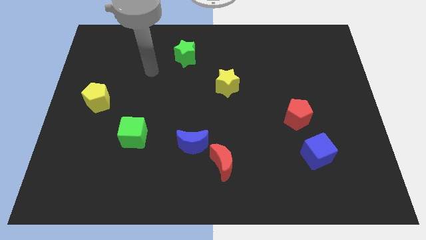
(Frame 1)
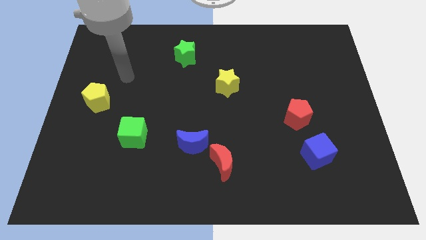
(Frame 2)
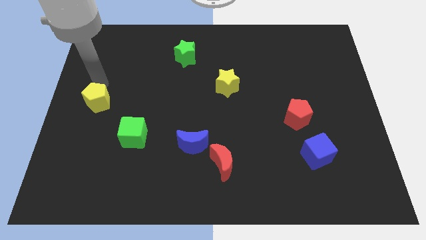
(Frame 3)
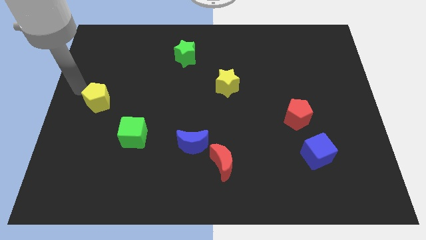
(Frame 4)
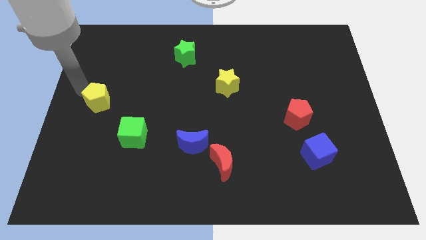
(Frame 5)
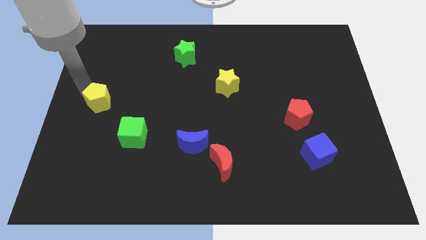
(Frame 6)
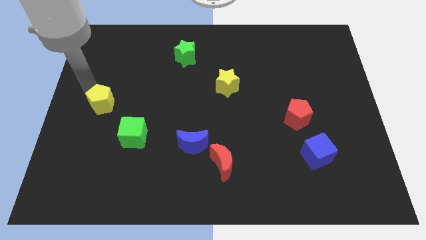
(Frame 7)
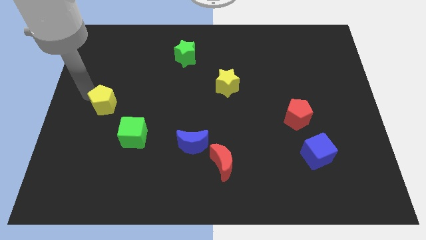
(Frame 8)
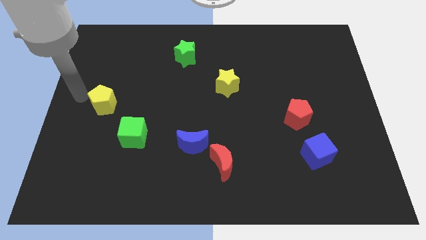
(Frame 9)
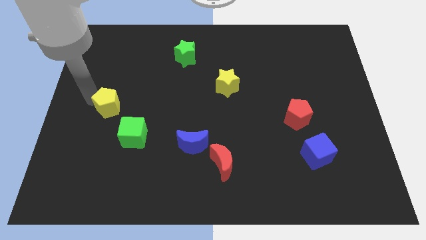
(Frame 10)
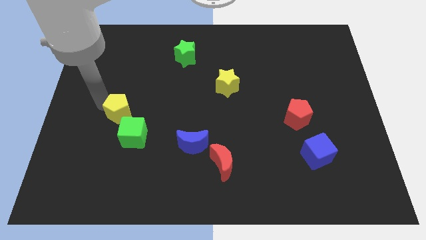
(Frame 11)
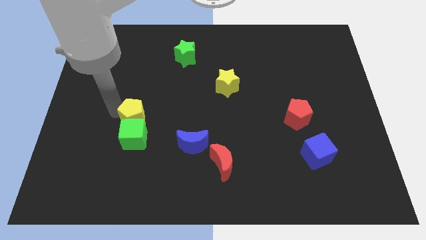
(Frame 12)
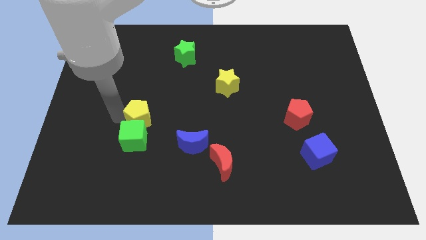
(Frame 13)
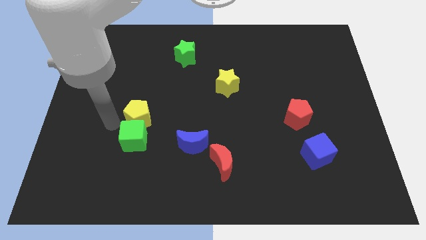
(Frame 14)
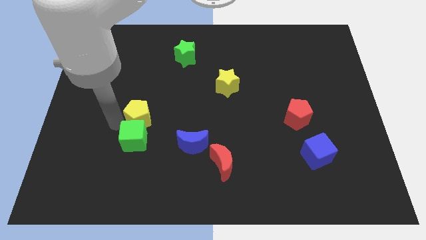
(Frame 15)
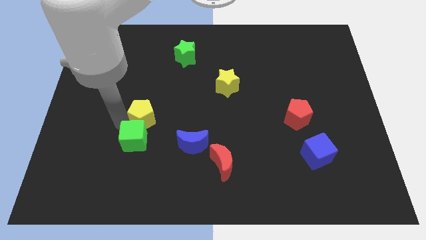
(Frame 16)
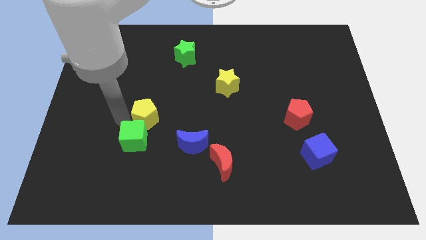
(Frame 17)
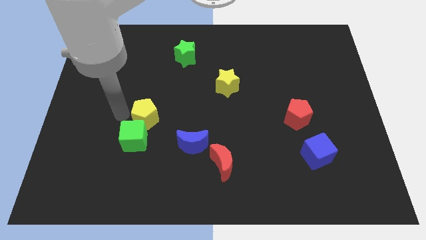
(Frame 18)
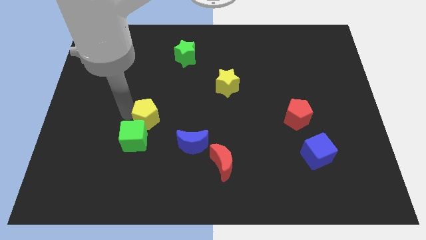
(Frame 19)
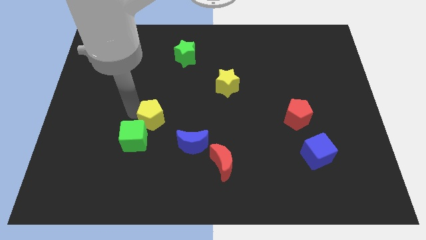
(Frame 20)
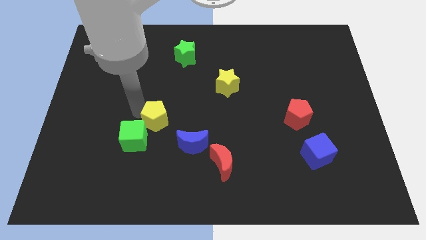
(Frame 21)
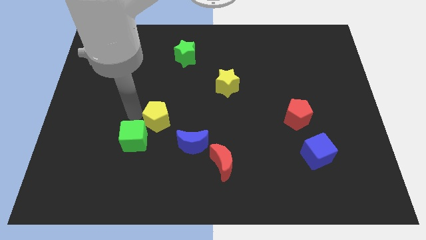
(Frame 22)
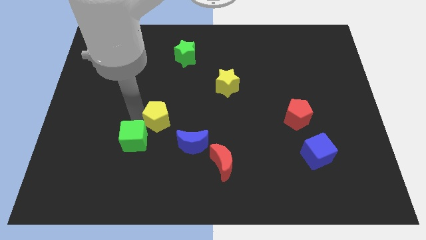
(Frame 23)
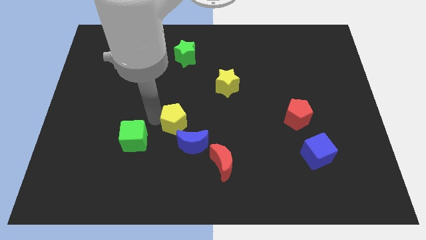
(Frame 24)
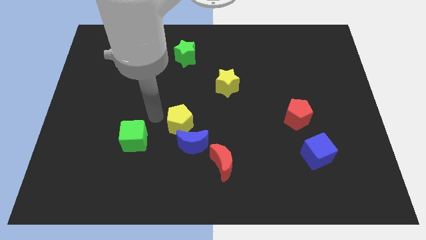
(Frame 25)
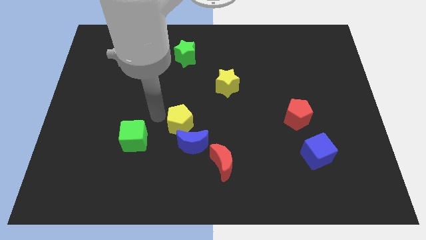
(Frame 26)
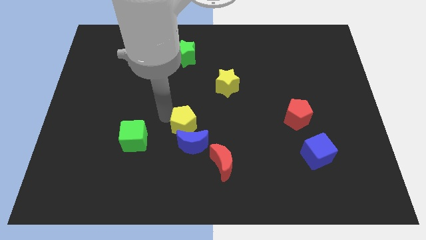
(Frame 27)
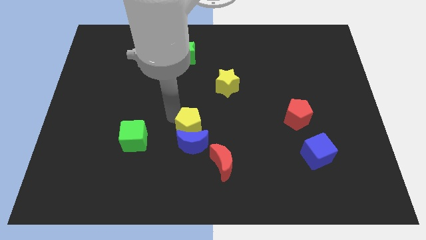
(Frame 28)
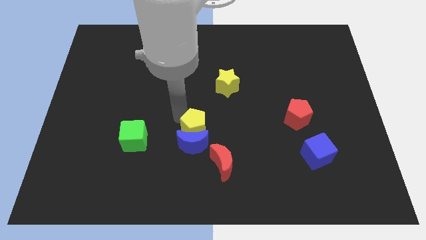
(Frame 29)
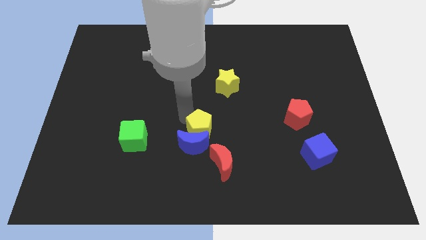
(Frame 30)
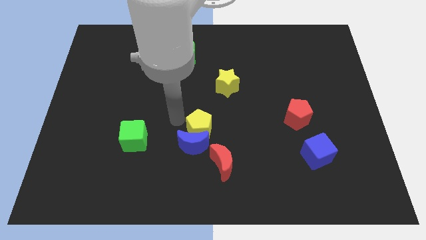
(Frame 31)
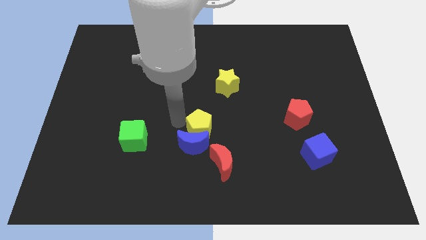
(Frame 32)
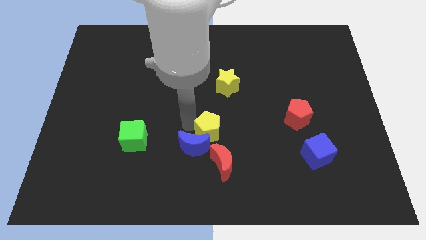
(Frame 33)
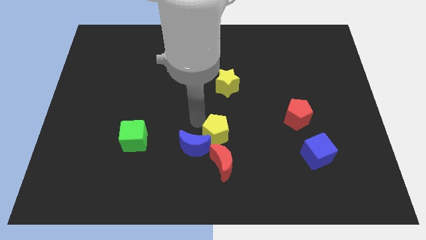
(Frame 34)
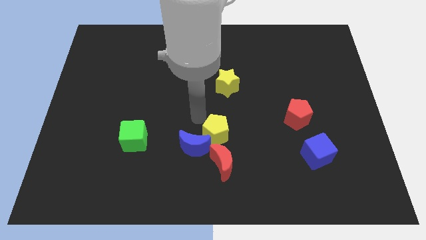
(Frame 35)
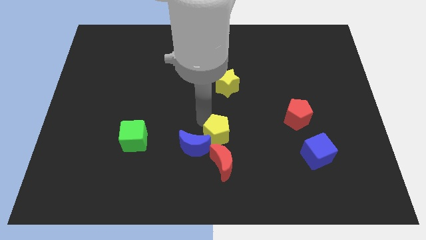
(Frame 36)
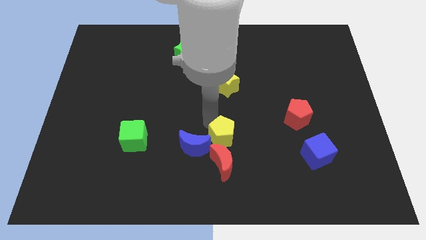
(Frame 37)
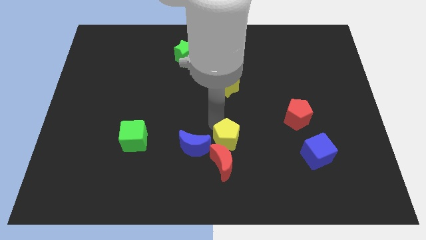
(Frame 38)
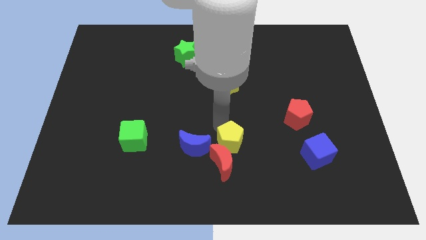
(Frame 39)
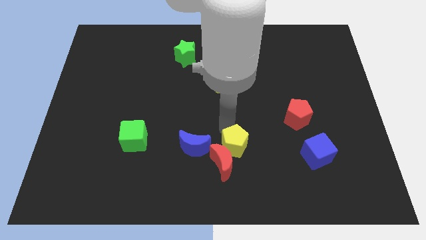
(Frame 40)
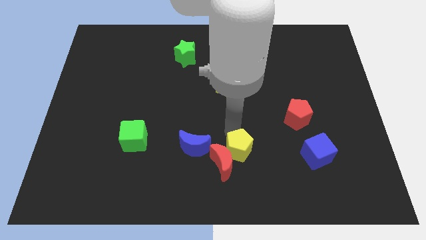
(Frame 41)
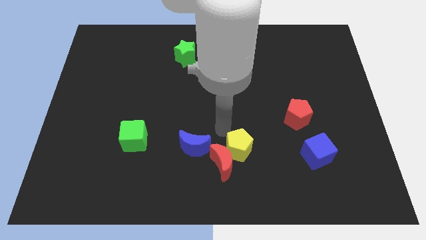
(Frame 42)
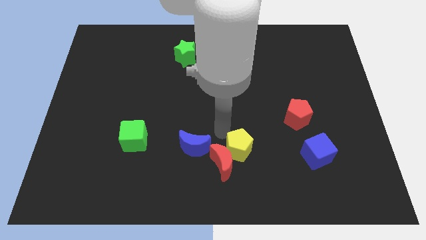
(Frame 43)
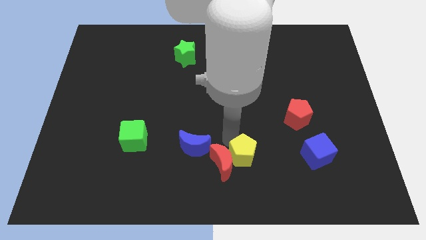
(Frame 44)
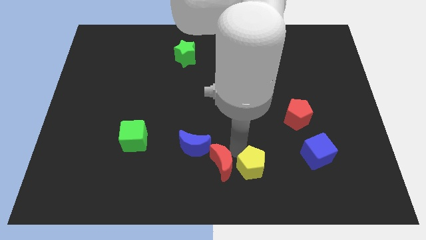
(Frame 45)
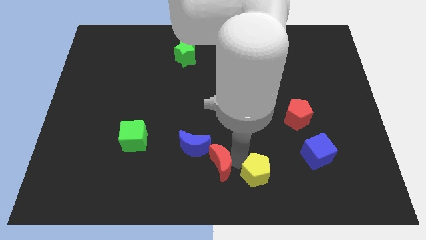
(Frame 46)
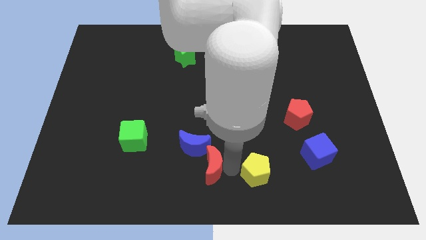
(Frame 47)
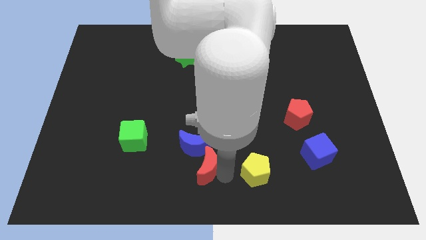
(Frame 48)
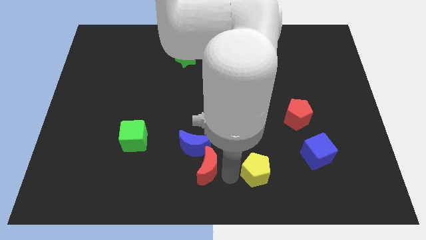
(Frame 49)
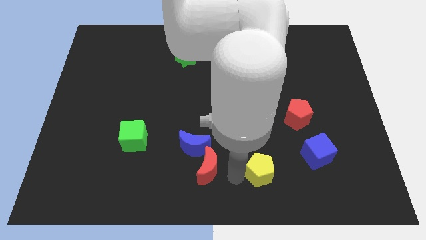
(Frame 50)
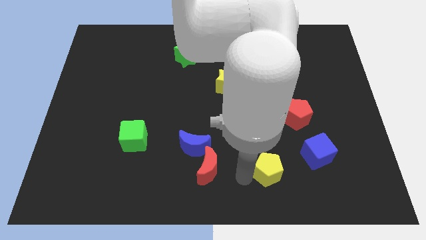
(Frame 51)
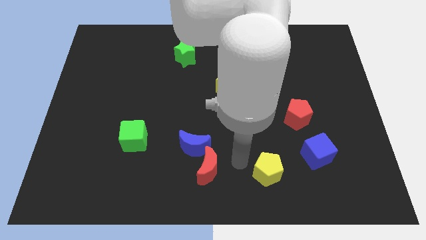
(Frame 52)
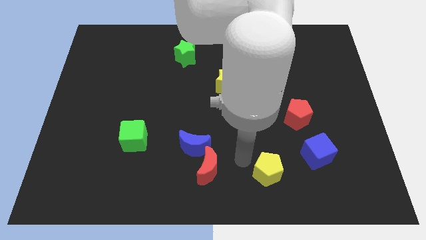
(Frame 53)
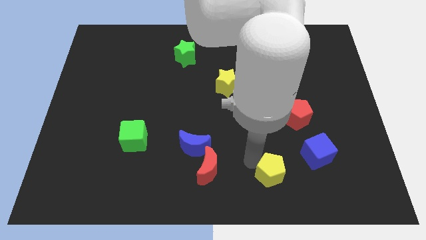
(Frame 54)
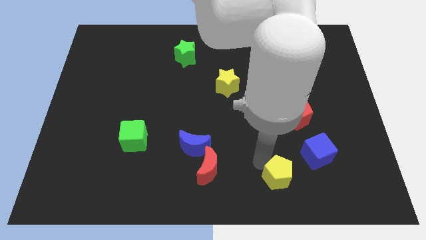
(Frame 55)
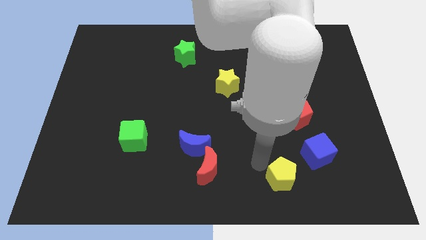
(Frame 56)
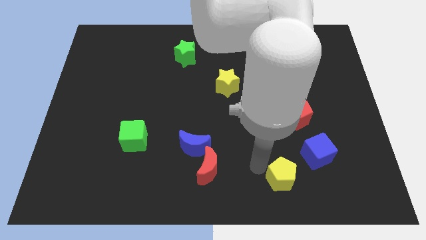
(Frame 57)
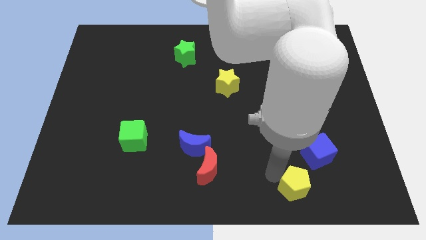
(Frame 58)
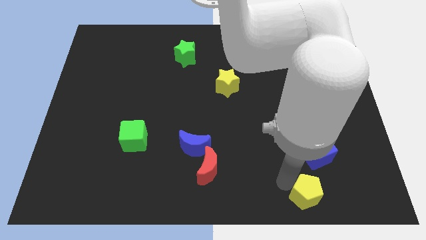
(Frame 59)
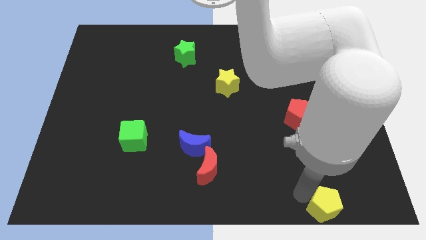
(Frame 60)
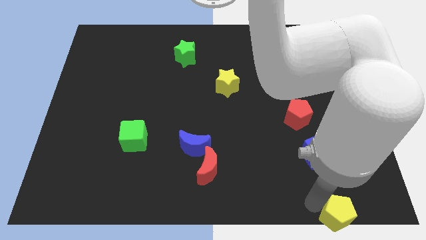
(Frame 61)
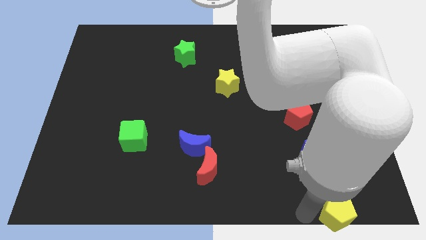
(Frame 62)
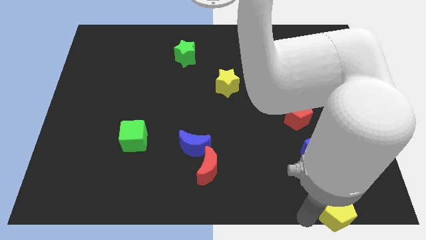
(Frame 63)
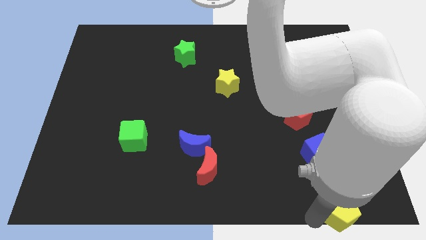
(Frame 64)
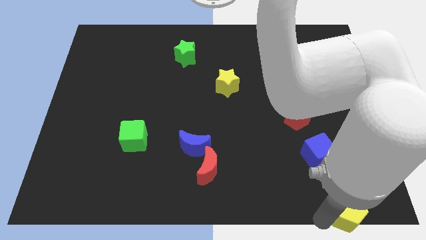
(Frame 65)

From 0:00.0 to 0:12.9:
slide the yellow pentagon to the bottom right of the board

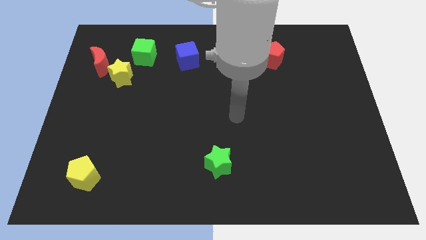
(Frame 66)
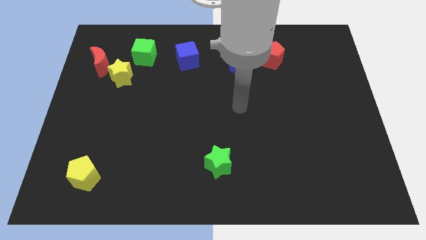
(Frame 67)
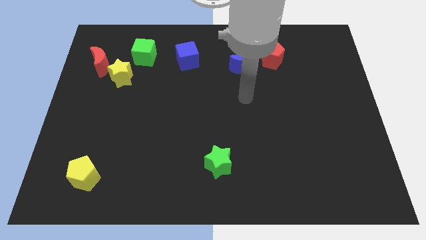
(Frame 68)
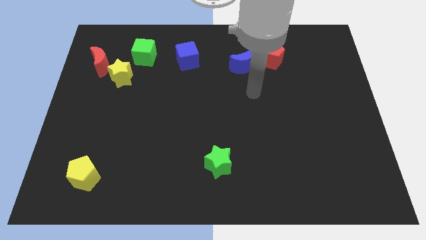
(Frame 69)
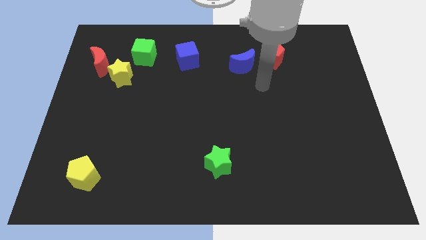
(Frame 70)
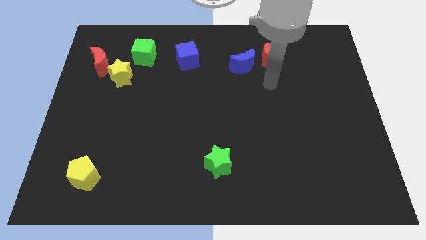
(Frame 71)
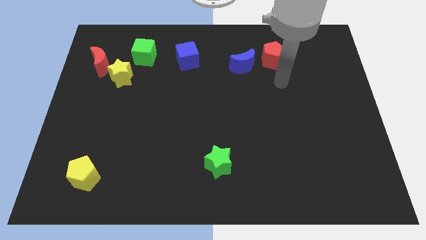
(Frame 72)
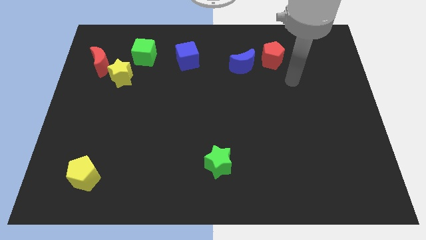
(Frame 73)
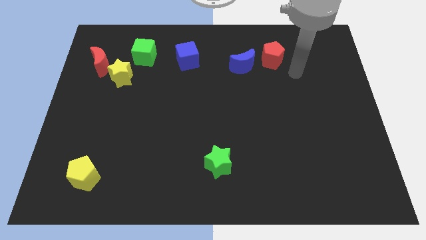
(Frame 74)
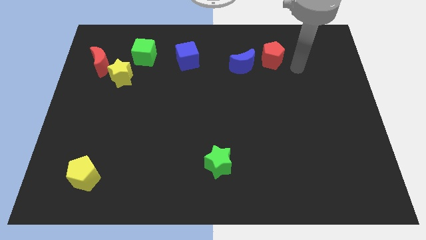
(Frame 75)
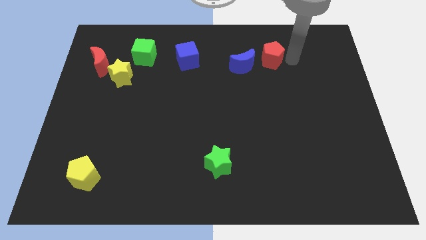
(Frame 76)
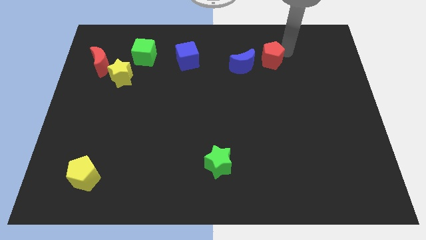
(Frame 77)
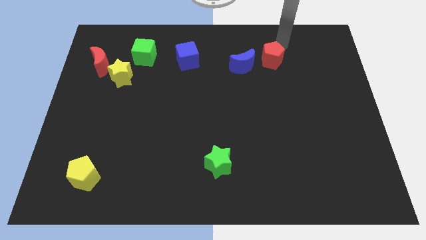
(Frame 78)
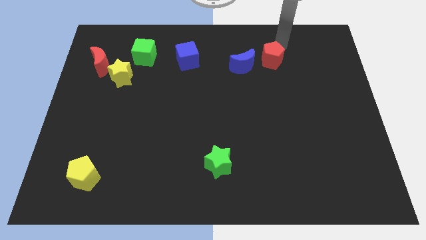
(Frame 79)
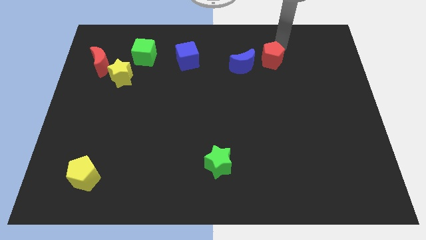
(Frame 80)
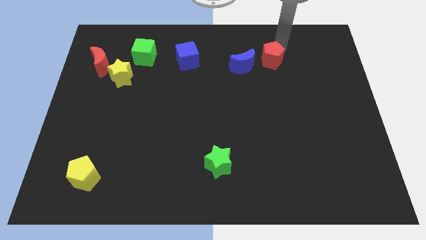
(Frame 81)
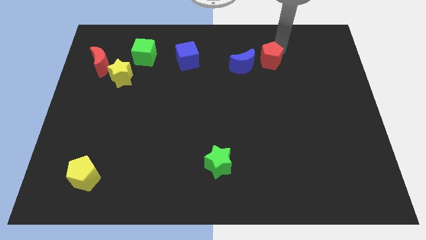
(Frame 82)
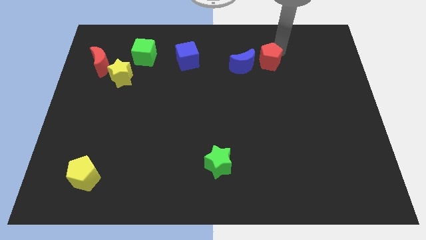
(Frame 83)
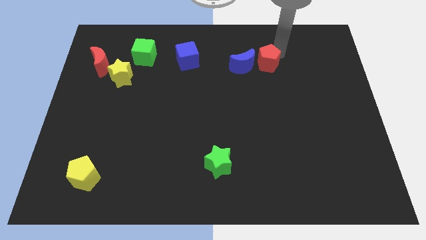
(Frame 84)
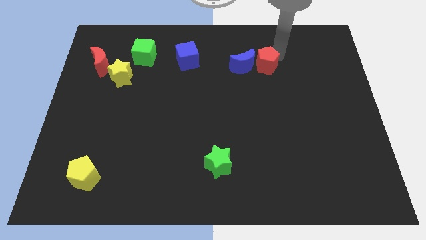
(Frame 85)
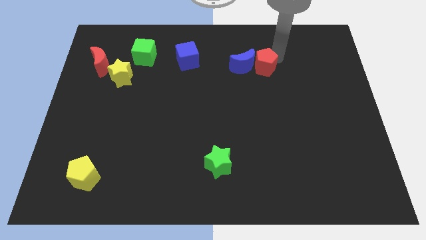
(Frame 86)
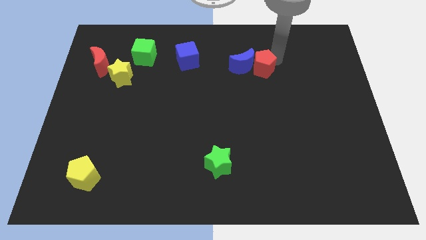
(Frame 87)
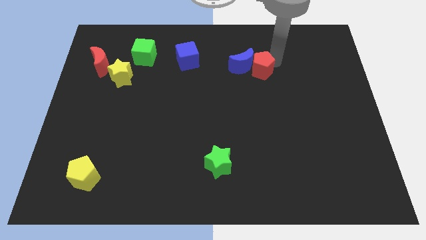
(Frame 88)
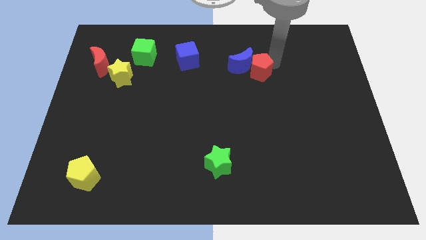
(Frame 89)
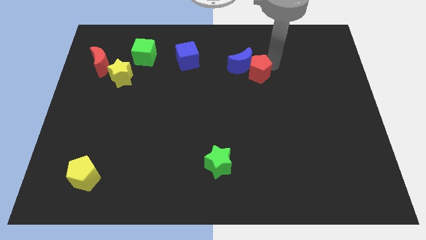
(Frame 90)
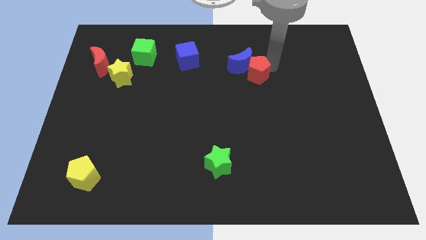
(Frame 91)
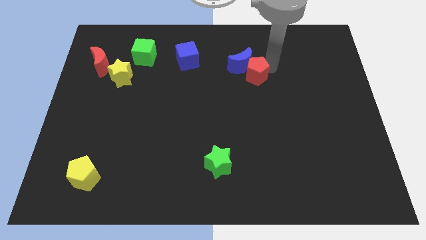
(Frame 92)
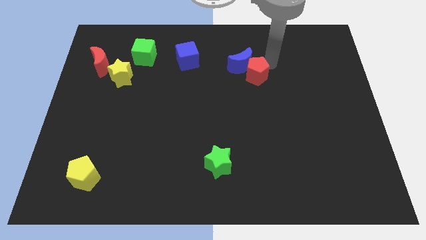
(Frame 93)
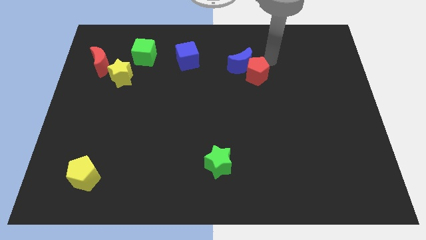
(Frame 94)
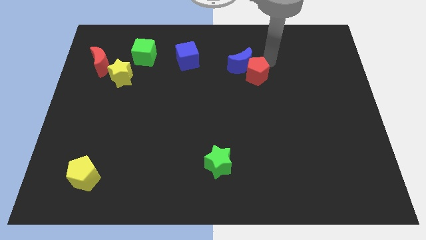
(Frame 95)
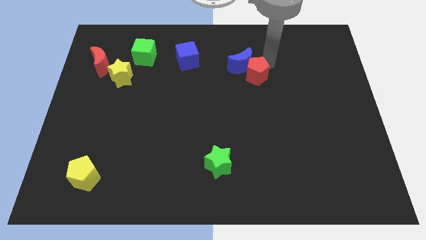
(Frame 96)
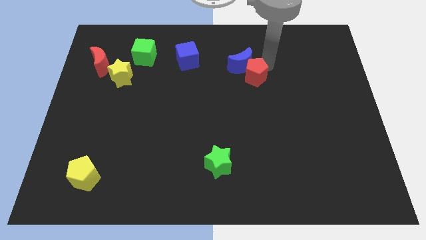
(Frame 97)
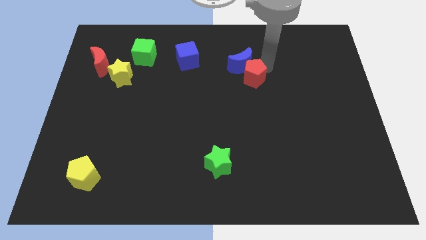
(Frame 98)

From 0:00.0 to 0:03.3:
push the red pentagon to the center of the board
